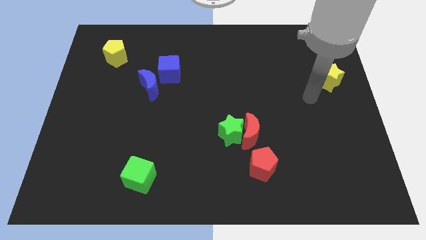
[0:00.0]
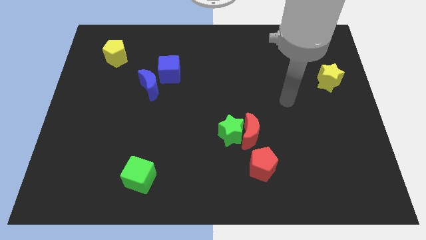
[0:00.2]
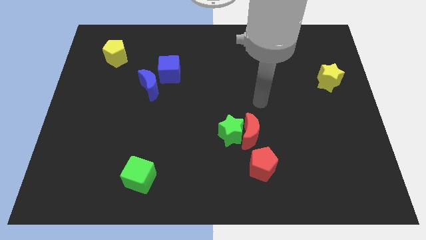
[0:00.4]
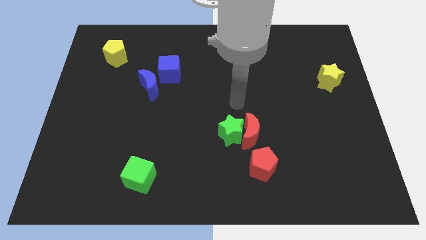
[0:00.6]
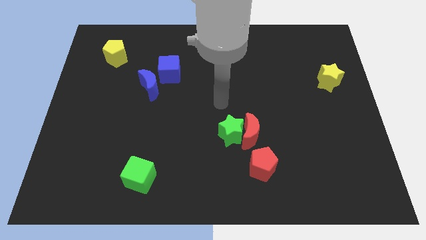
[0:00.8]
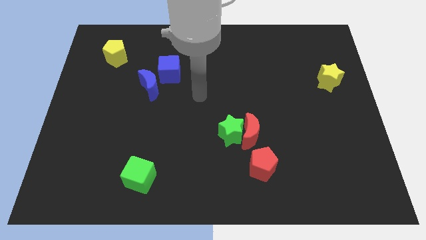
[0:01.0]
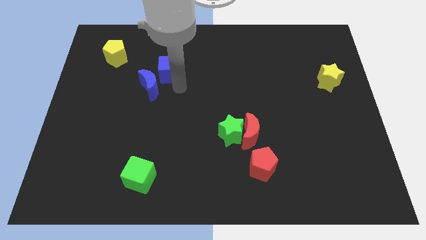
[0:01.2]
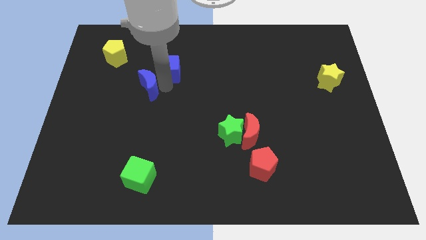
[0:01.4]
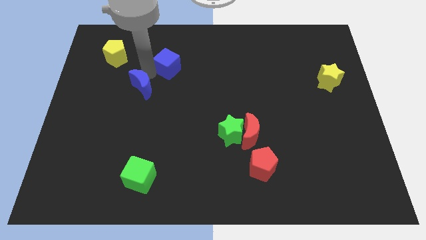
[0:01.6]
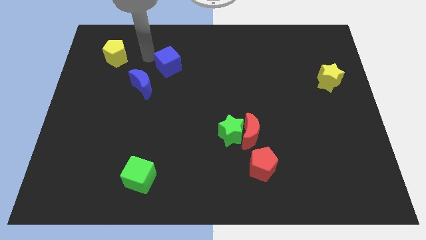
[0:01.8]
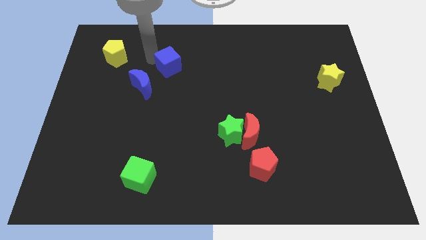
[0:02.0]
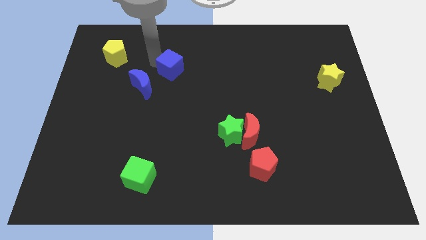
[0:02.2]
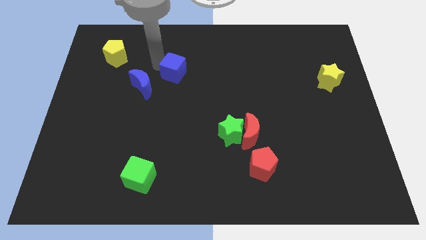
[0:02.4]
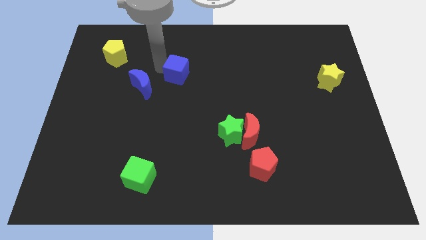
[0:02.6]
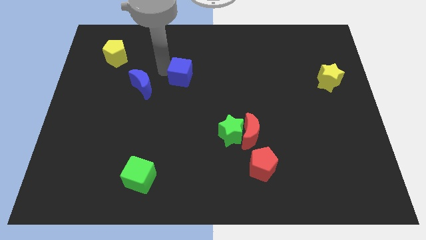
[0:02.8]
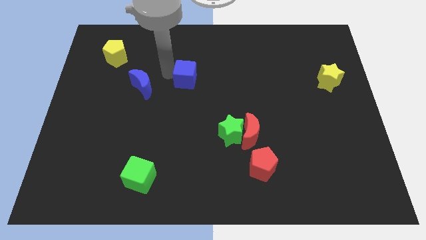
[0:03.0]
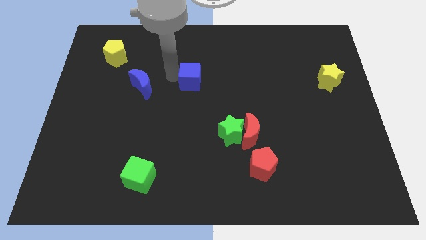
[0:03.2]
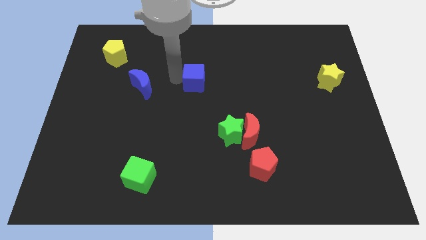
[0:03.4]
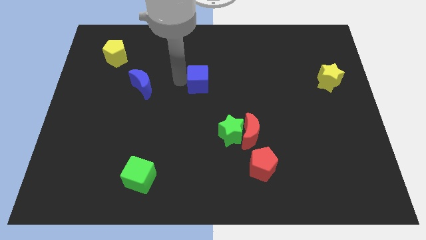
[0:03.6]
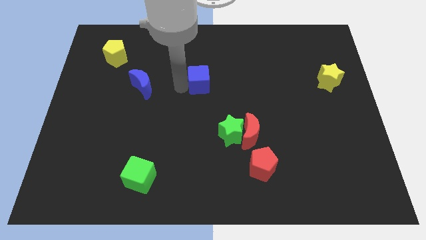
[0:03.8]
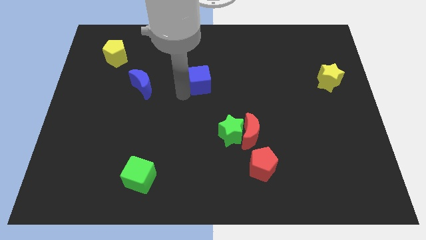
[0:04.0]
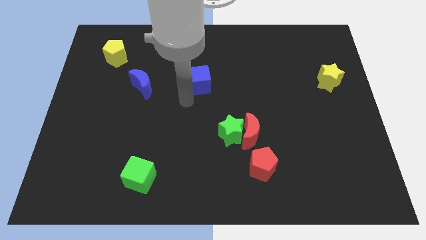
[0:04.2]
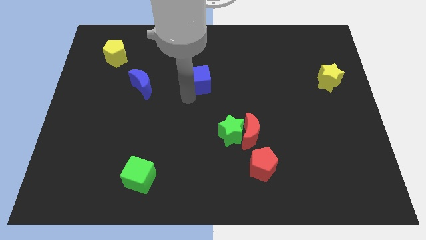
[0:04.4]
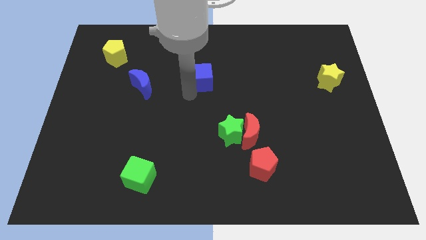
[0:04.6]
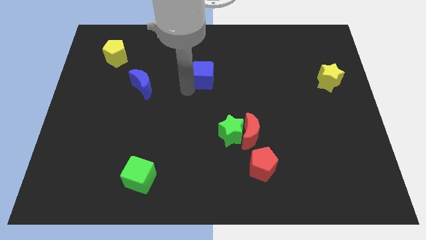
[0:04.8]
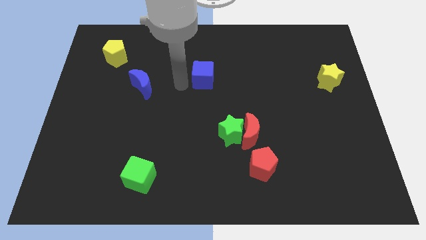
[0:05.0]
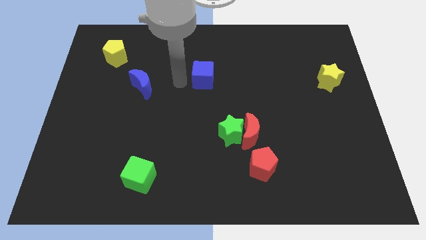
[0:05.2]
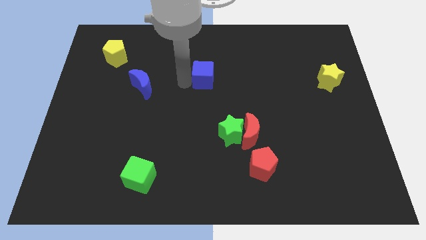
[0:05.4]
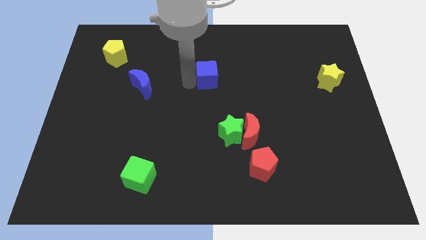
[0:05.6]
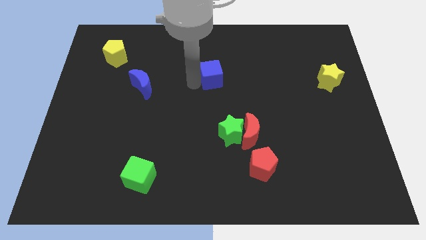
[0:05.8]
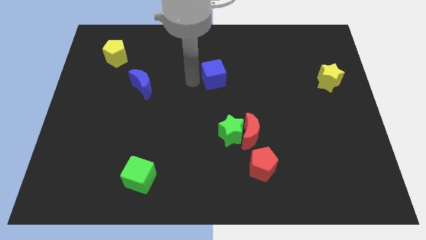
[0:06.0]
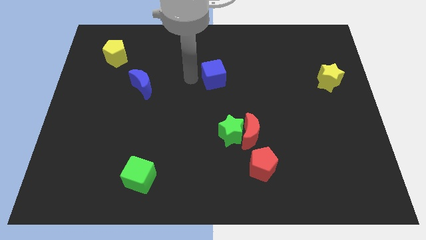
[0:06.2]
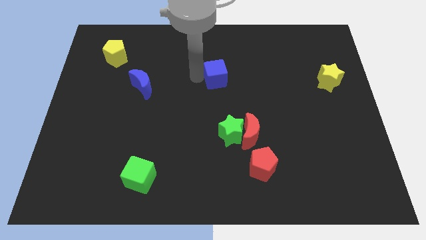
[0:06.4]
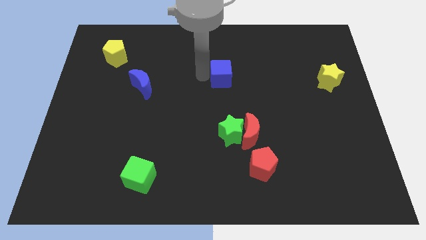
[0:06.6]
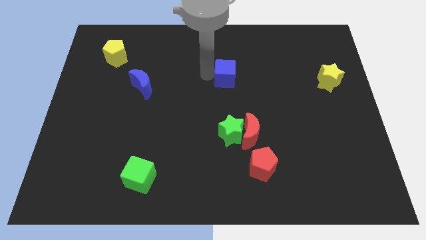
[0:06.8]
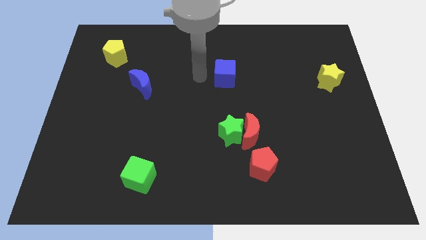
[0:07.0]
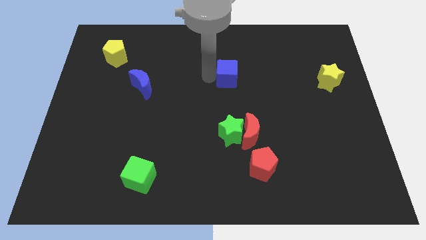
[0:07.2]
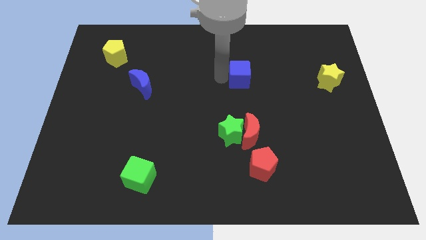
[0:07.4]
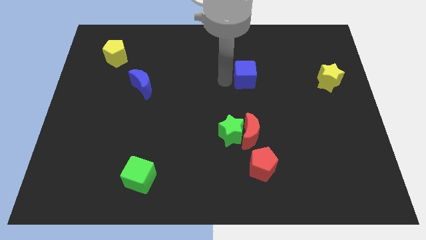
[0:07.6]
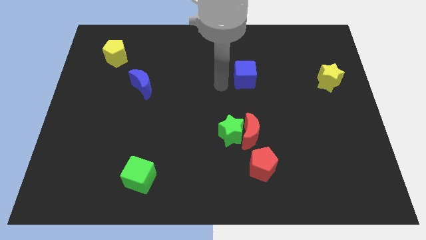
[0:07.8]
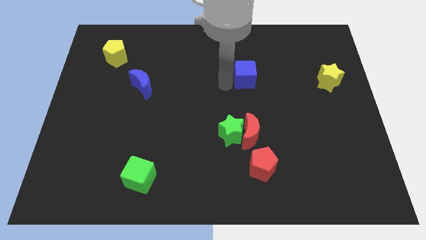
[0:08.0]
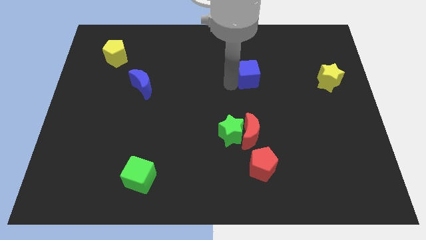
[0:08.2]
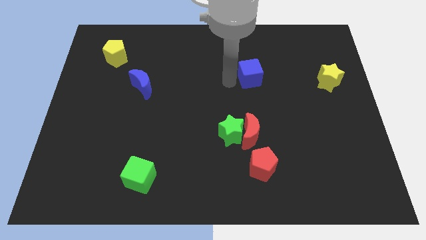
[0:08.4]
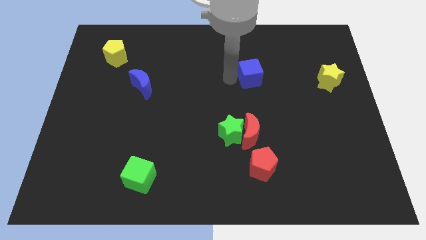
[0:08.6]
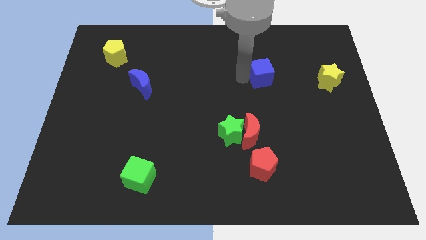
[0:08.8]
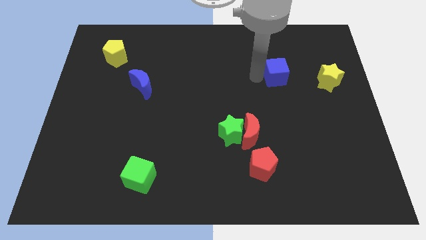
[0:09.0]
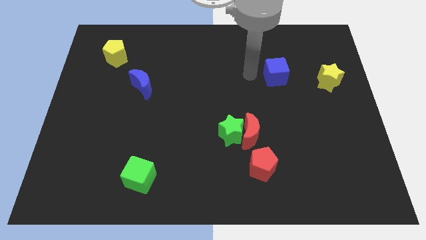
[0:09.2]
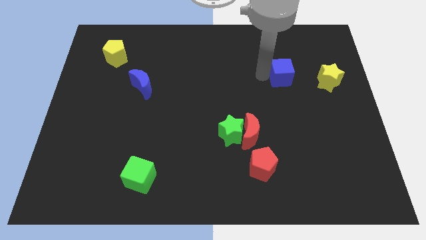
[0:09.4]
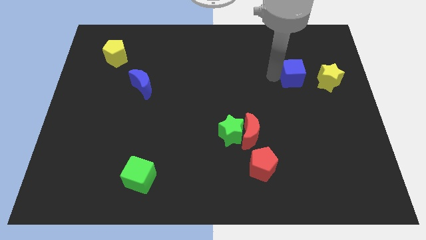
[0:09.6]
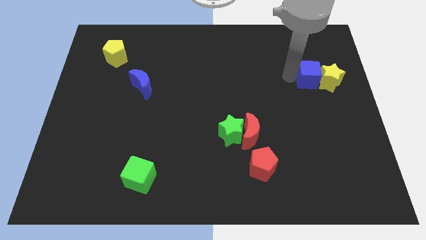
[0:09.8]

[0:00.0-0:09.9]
slide the blue cube next to the yellow star

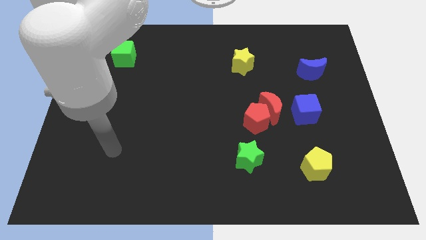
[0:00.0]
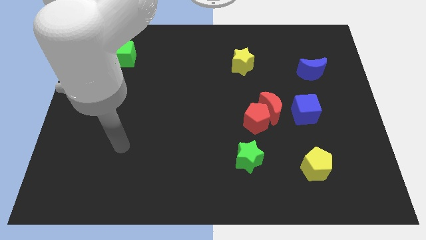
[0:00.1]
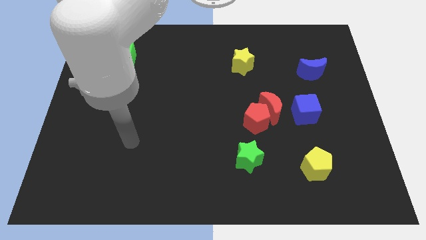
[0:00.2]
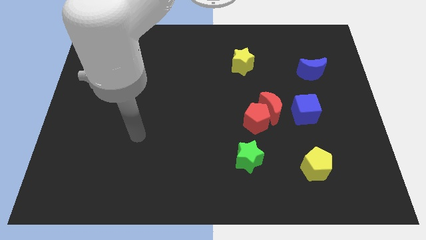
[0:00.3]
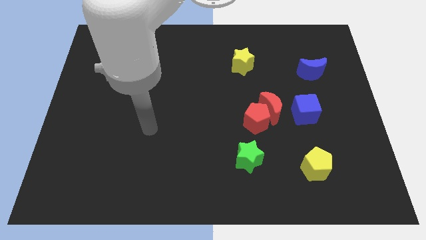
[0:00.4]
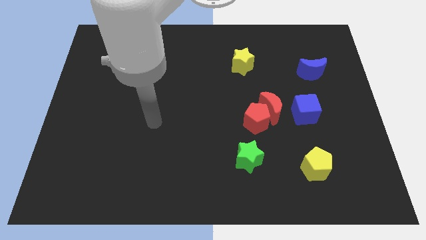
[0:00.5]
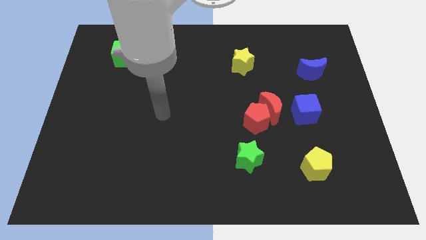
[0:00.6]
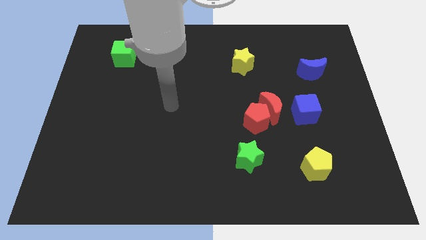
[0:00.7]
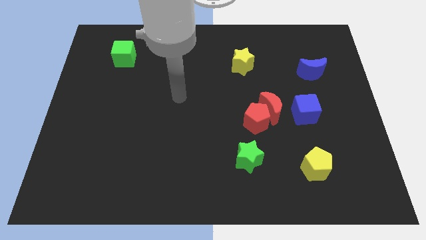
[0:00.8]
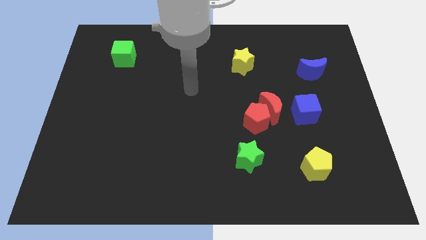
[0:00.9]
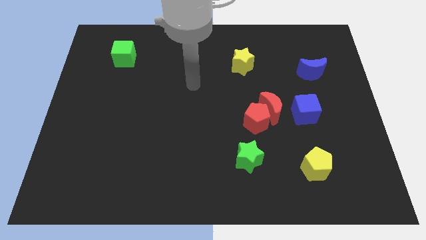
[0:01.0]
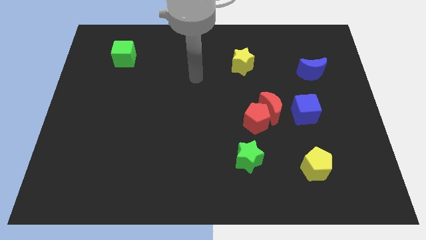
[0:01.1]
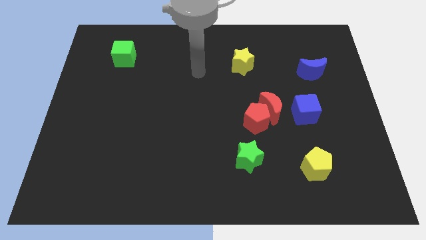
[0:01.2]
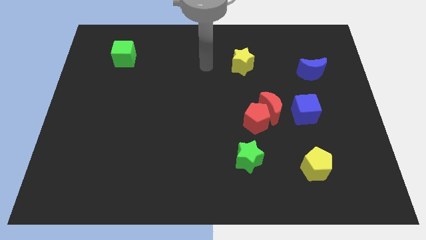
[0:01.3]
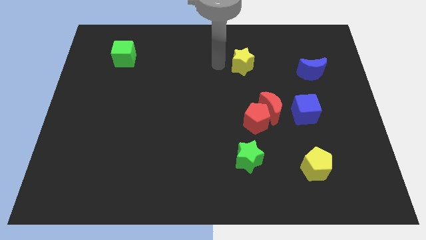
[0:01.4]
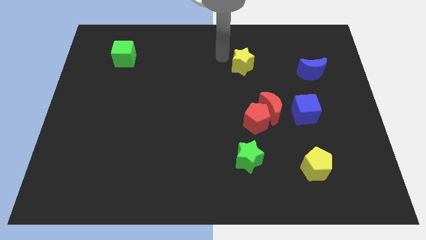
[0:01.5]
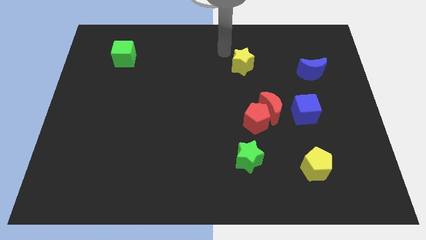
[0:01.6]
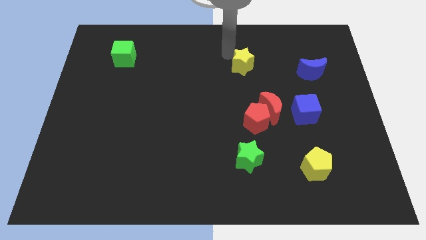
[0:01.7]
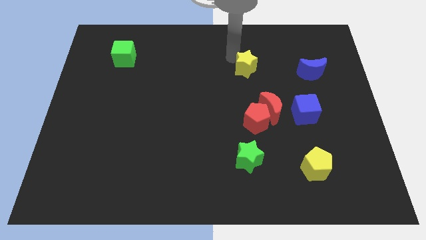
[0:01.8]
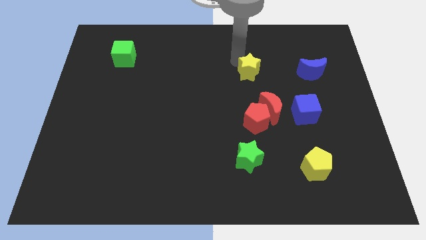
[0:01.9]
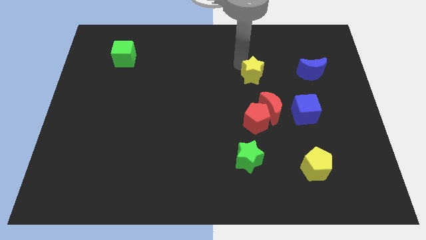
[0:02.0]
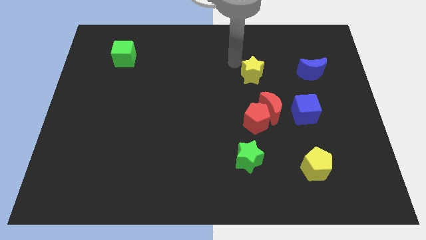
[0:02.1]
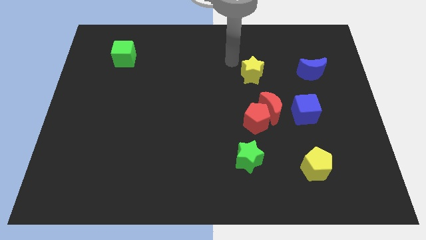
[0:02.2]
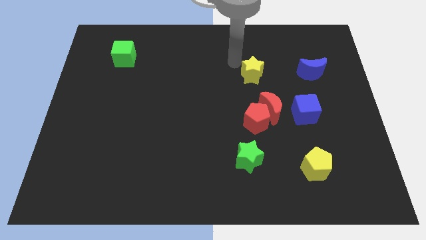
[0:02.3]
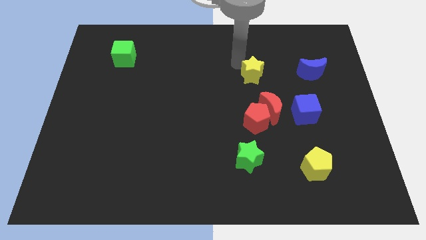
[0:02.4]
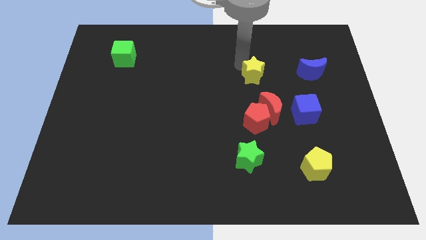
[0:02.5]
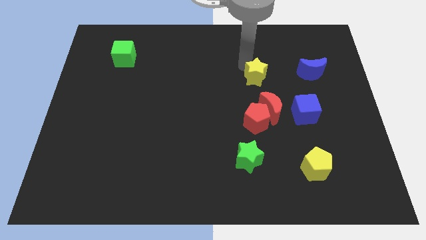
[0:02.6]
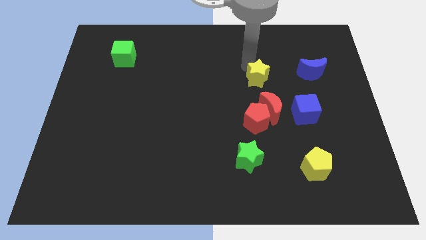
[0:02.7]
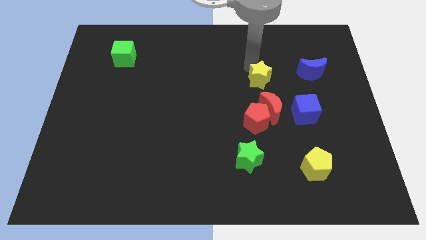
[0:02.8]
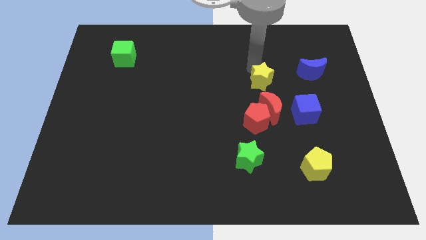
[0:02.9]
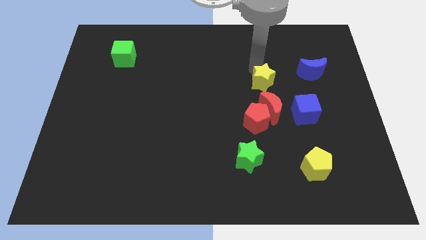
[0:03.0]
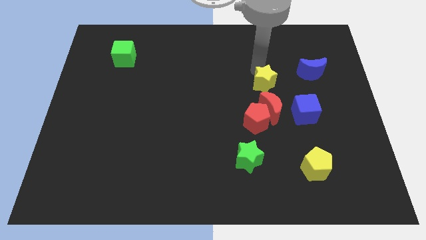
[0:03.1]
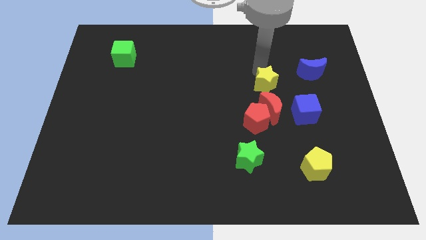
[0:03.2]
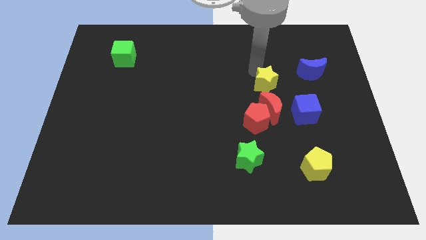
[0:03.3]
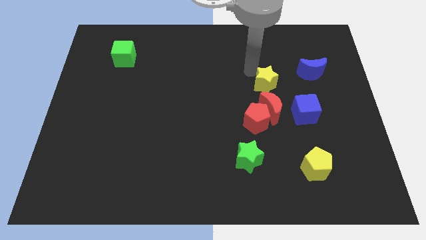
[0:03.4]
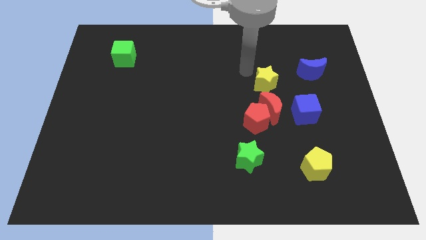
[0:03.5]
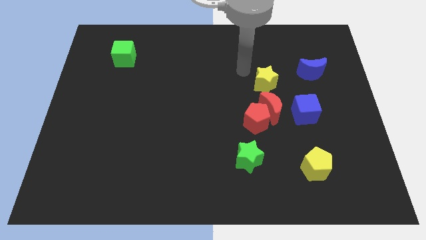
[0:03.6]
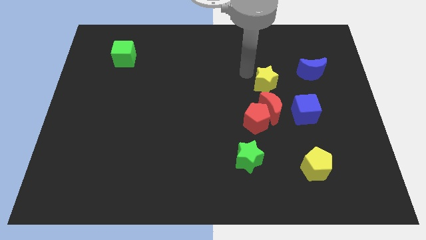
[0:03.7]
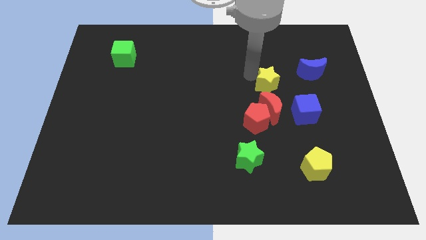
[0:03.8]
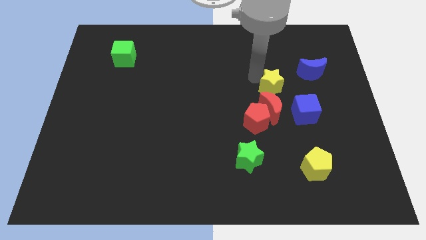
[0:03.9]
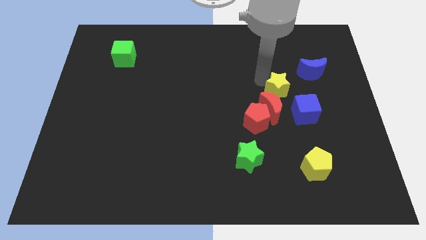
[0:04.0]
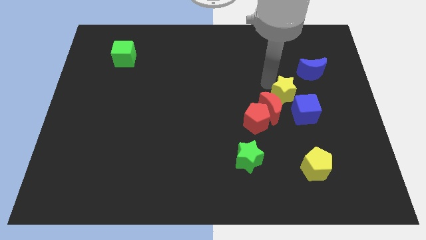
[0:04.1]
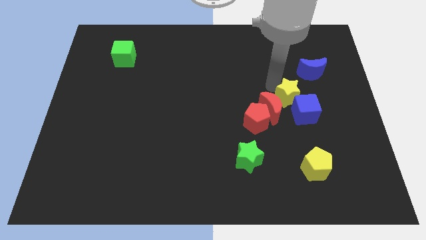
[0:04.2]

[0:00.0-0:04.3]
push the yellow star towards the blue cube
